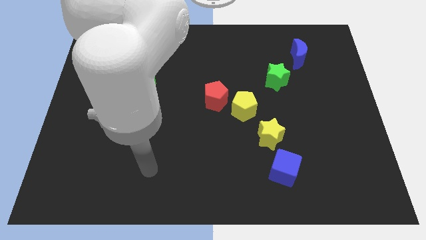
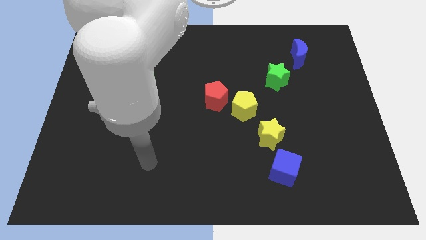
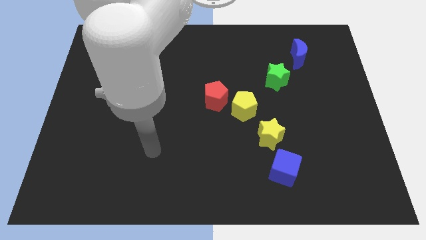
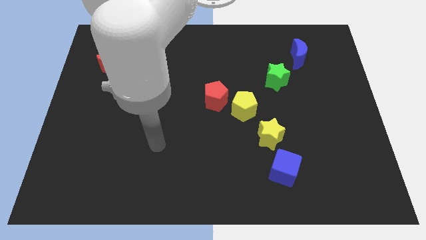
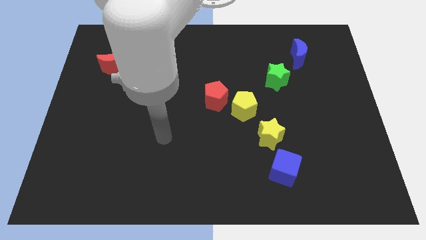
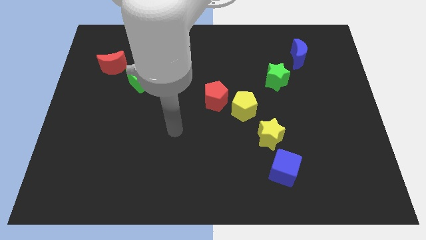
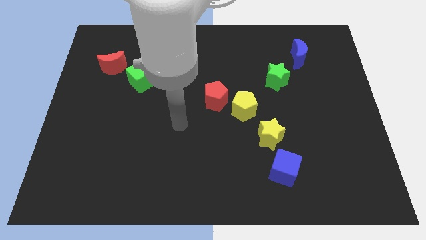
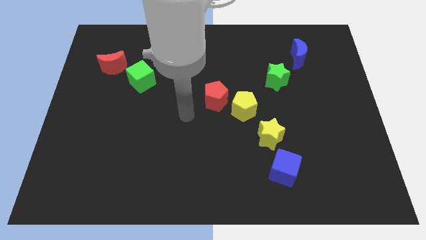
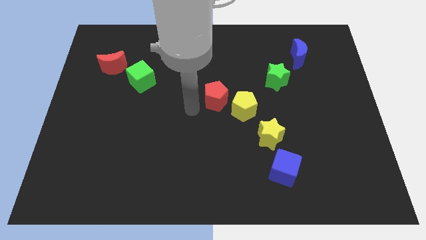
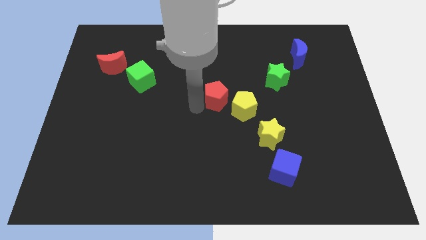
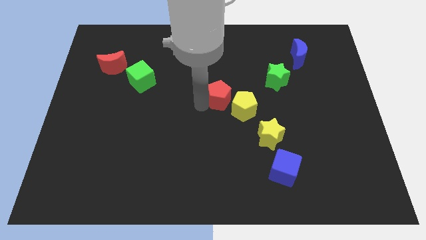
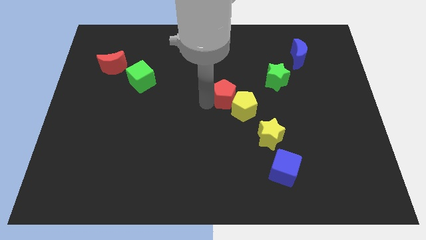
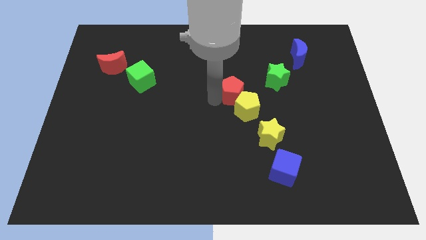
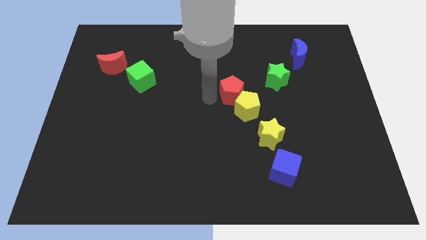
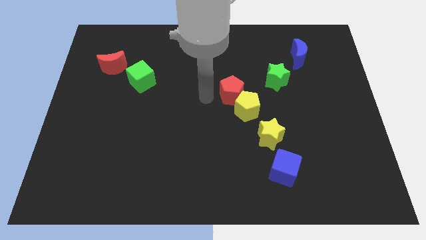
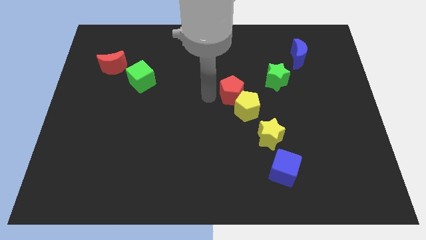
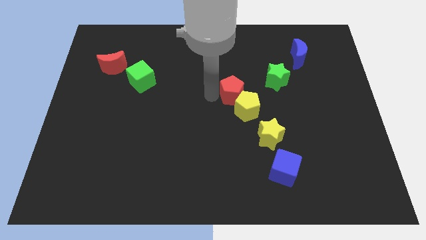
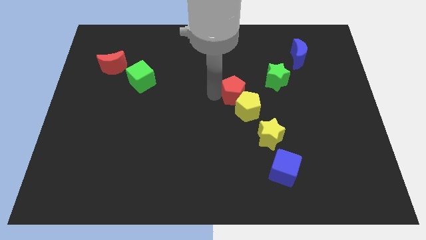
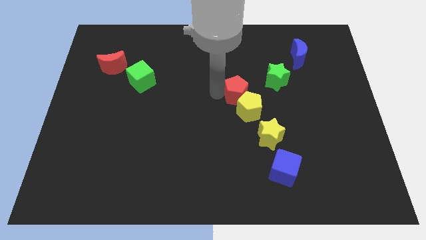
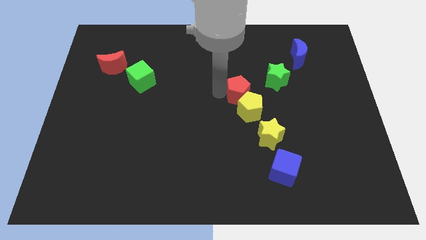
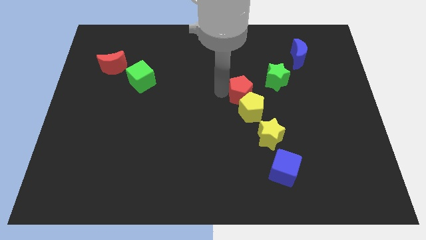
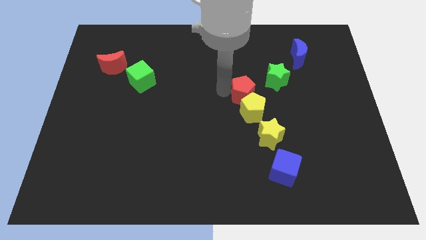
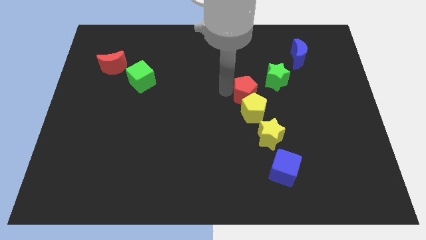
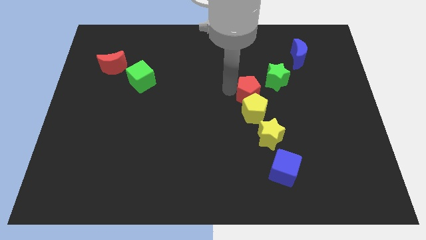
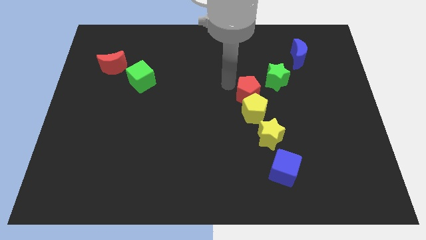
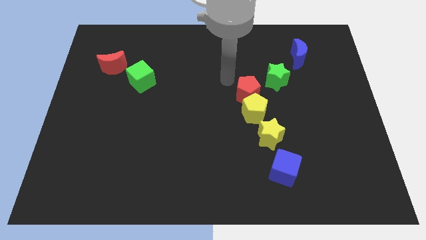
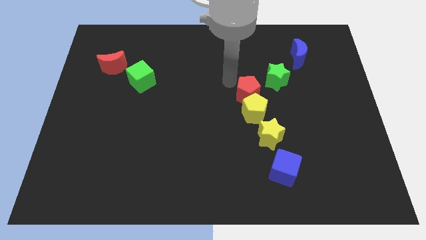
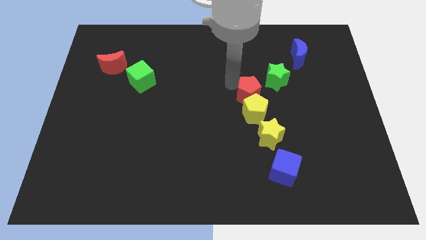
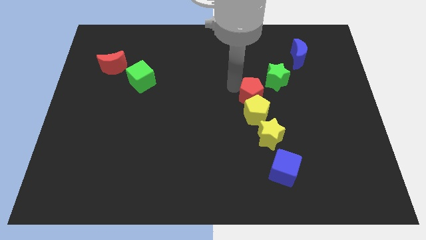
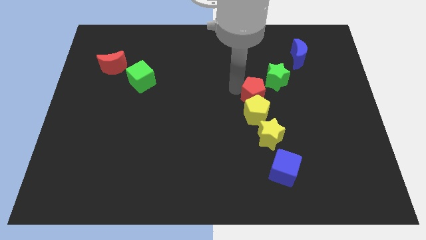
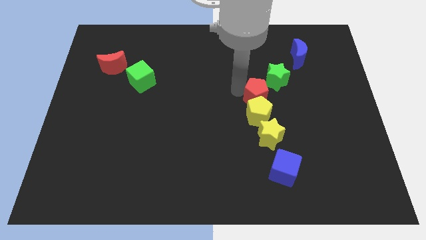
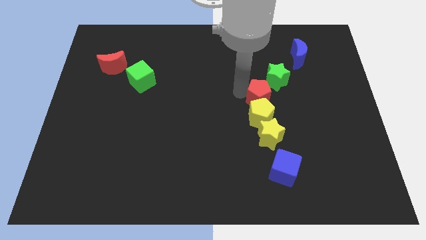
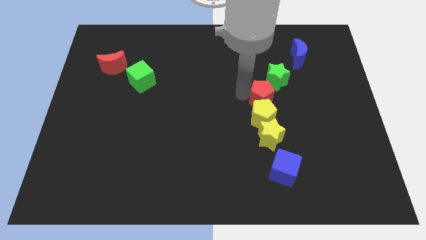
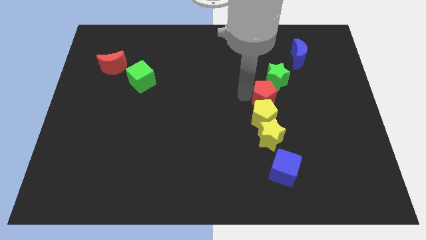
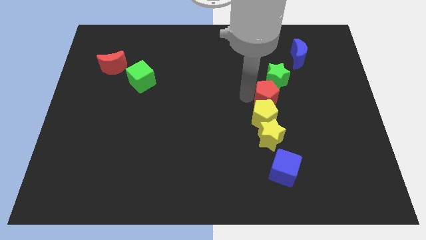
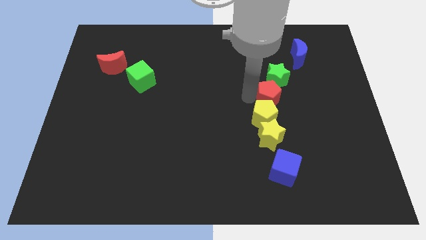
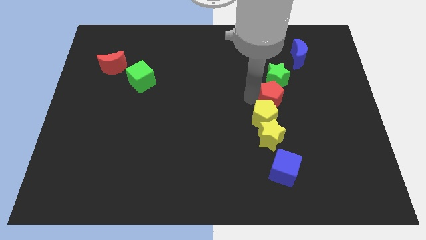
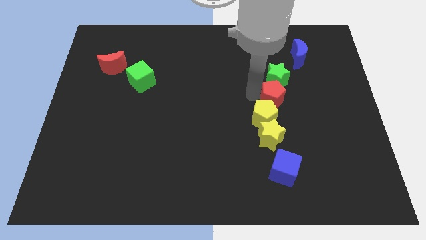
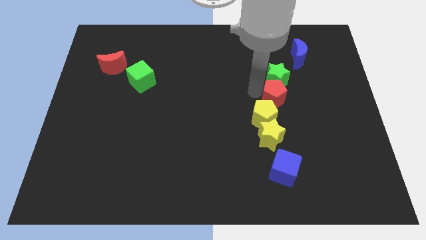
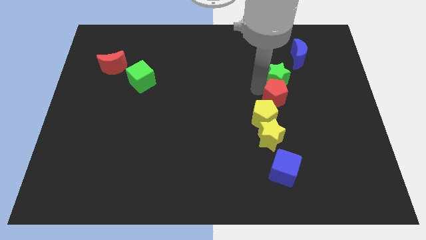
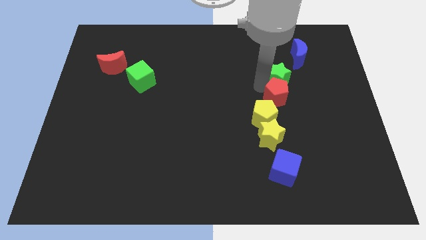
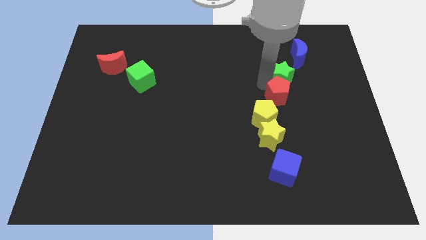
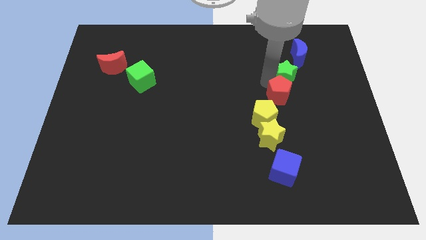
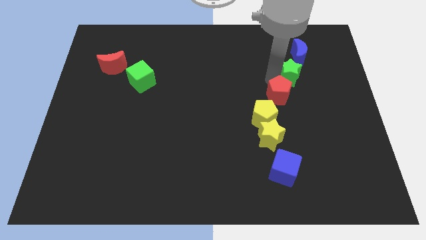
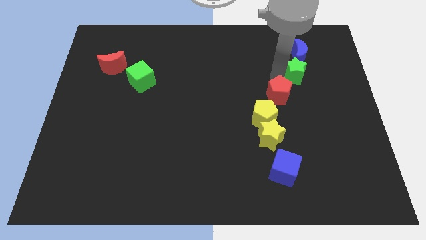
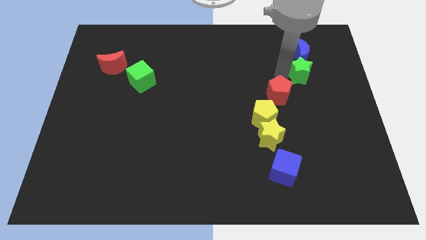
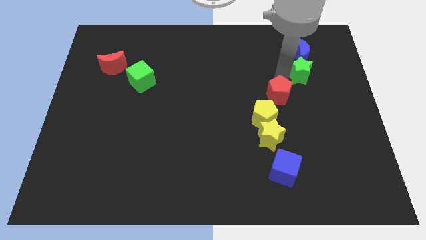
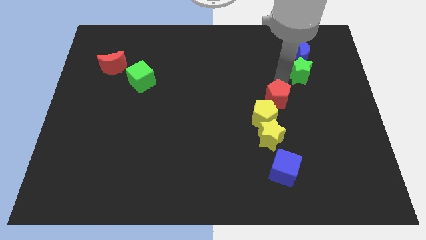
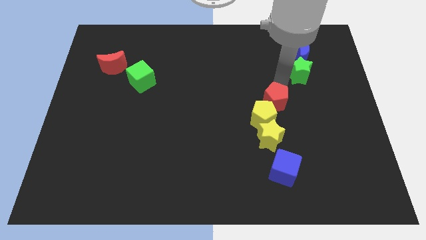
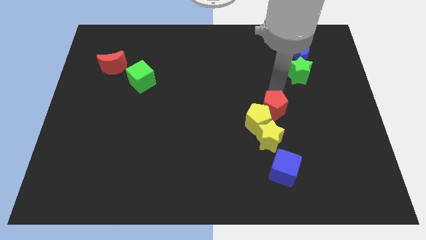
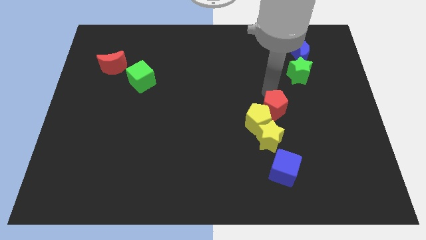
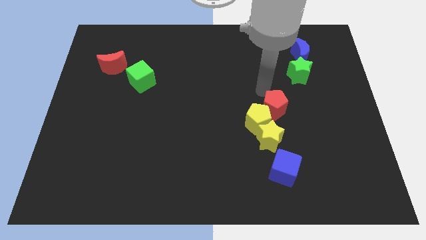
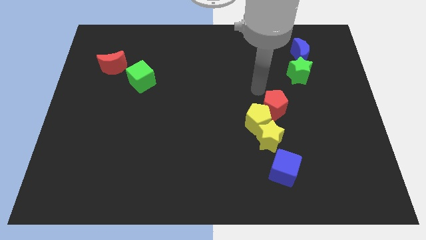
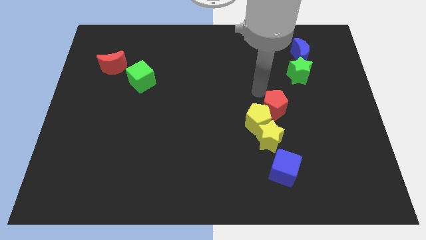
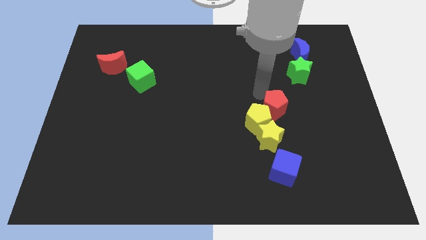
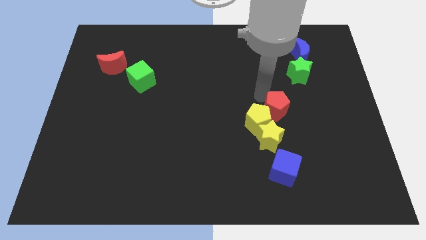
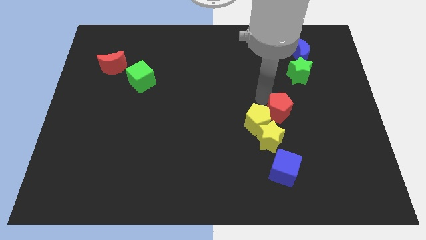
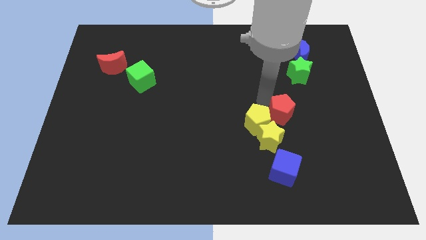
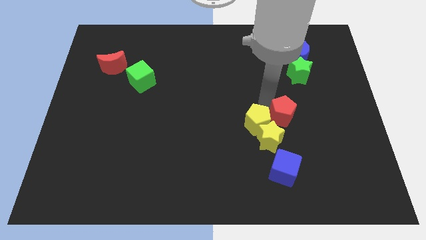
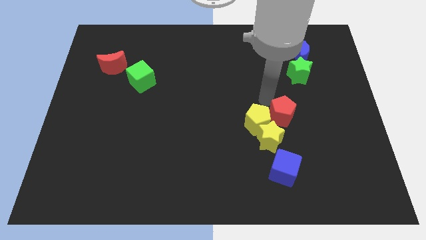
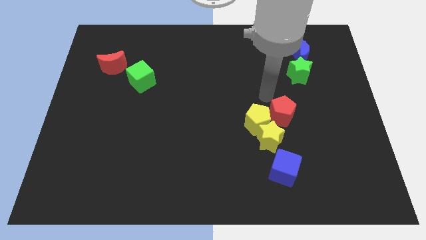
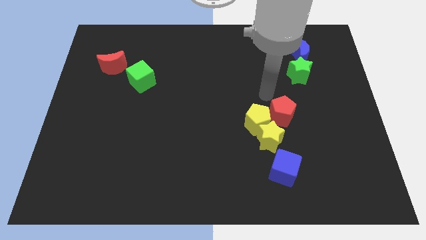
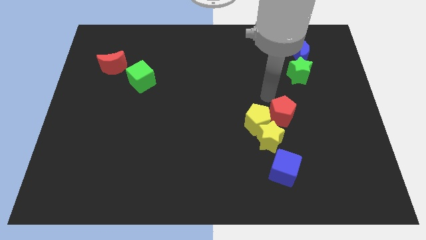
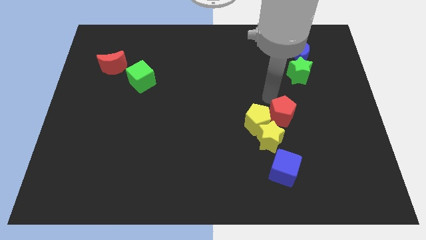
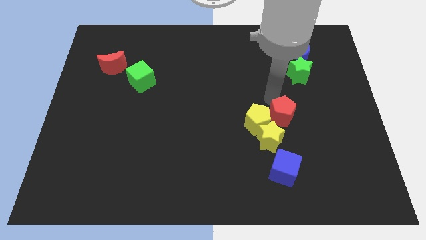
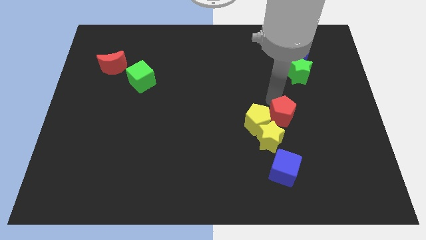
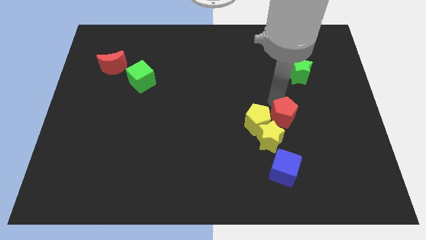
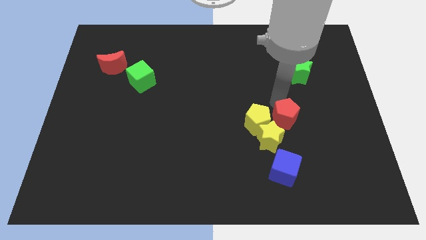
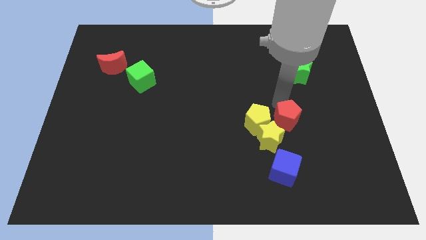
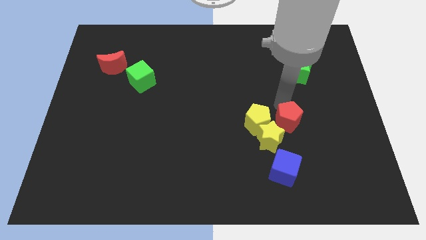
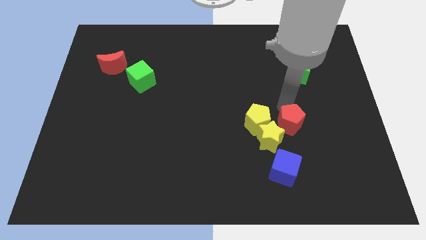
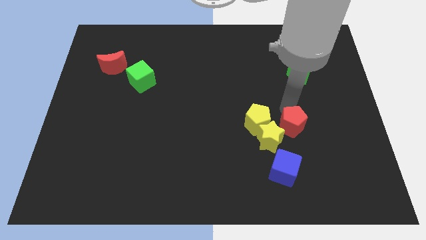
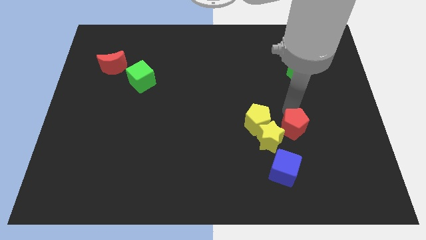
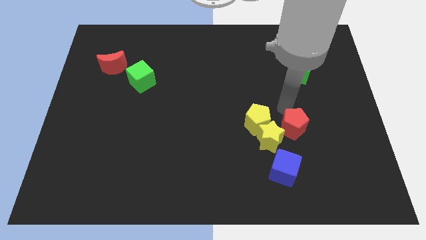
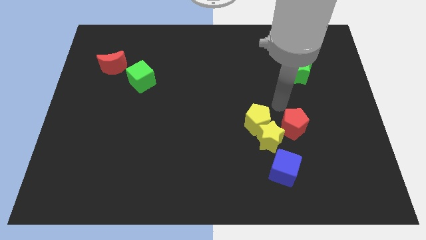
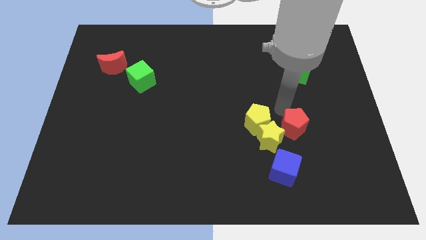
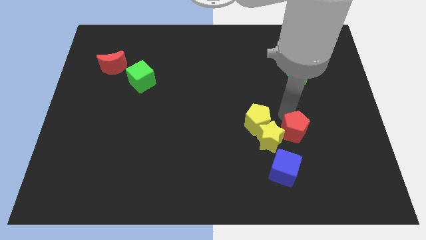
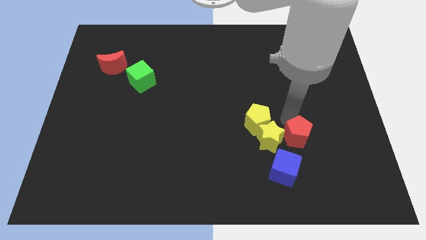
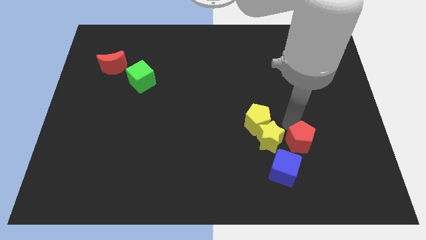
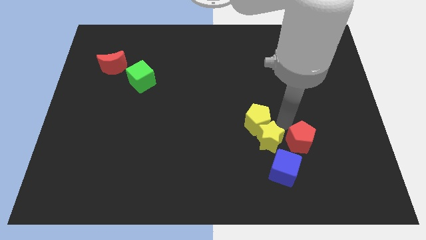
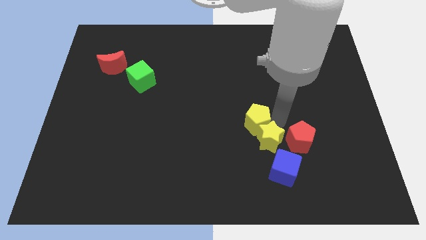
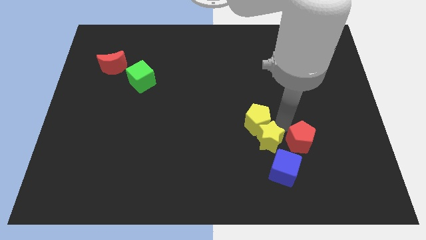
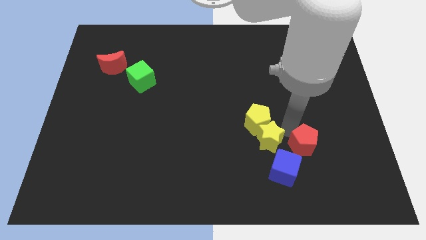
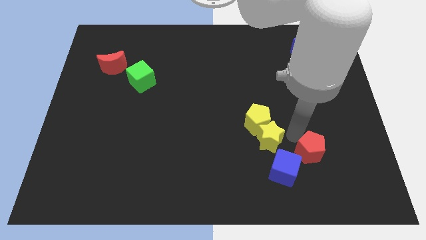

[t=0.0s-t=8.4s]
push the red pentagon just right of the blue cube
